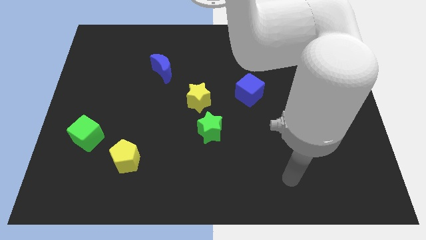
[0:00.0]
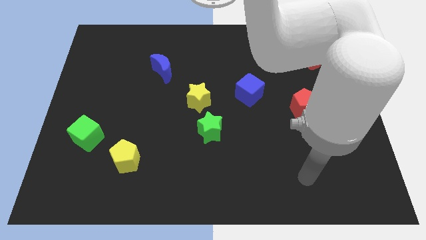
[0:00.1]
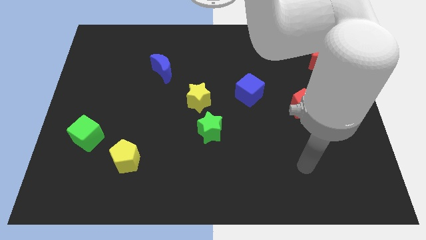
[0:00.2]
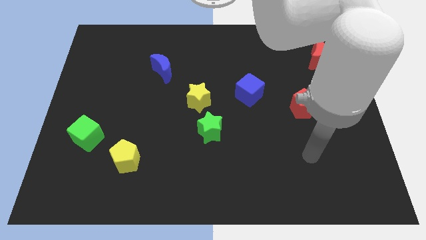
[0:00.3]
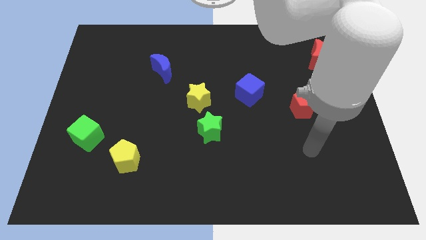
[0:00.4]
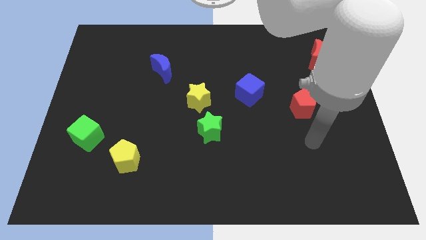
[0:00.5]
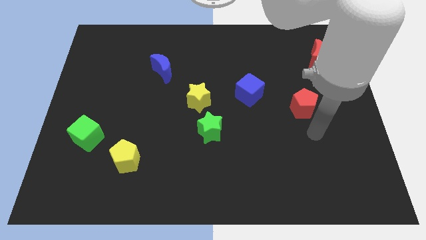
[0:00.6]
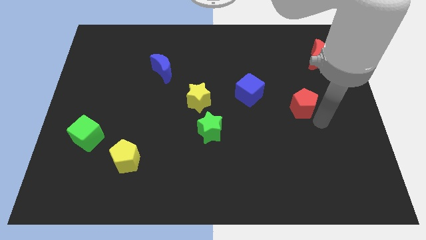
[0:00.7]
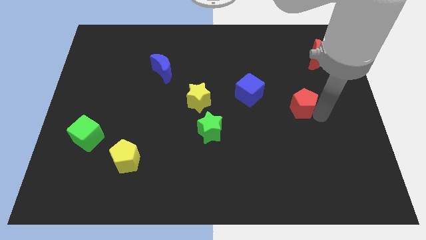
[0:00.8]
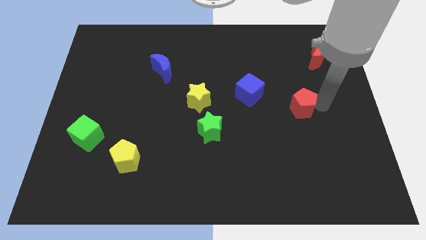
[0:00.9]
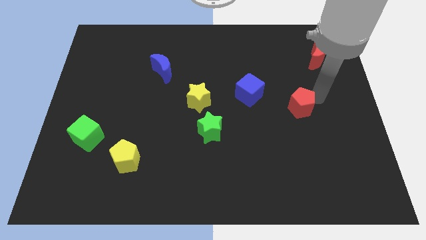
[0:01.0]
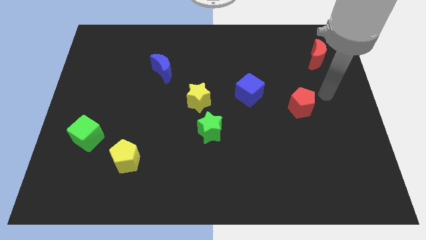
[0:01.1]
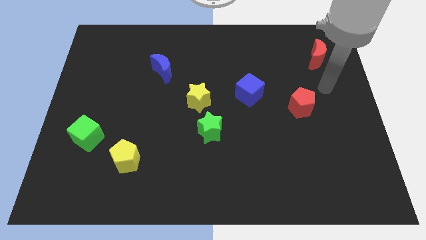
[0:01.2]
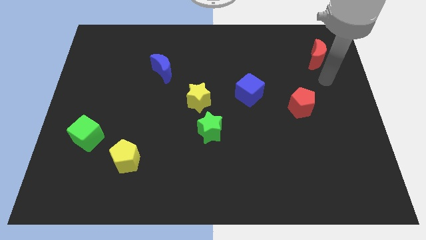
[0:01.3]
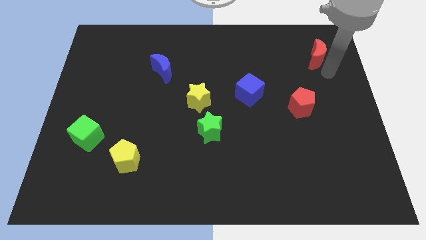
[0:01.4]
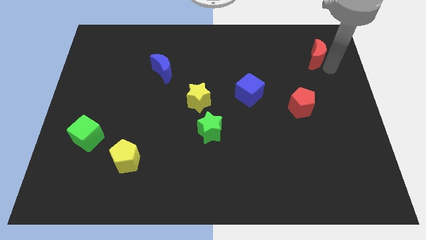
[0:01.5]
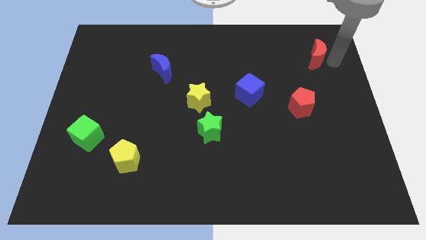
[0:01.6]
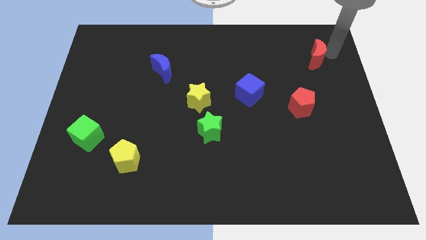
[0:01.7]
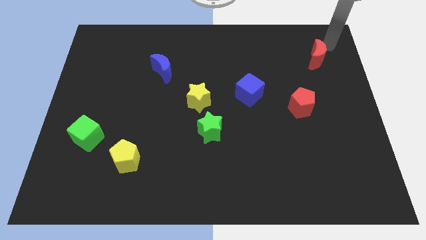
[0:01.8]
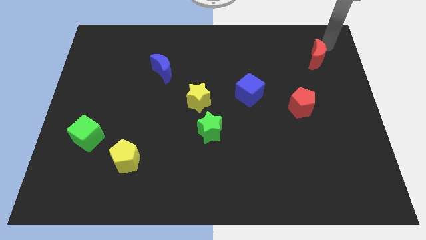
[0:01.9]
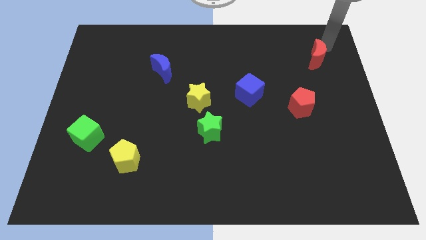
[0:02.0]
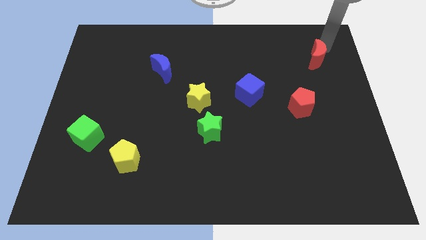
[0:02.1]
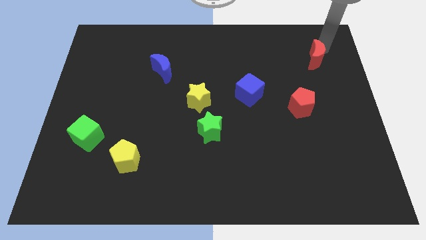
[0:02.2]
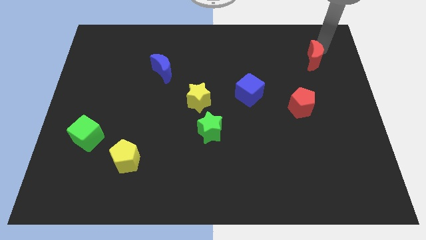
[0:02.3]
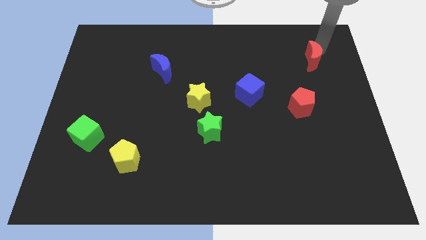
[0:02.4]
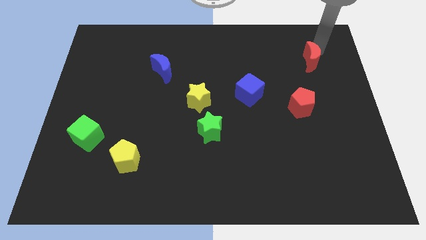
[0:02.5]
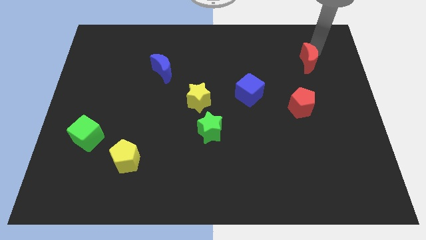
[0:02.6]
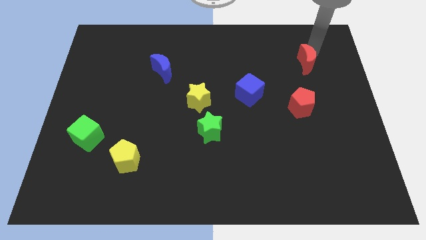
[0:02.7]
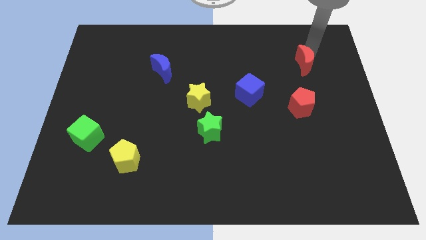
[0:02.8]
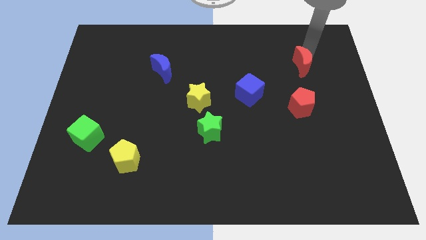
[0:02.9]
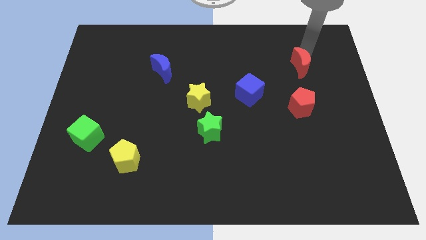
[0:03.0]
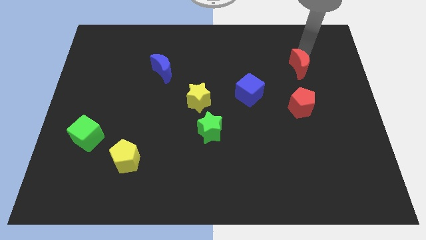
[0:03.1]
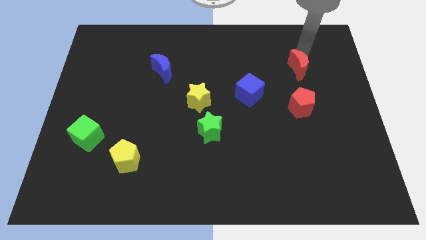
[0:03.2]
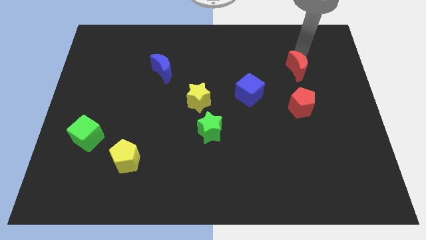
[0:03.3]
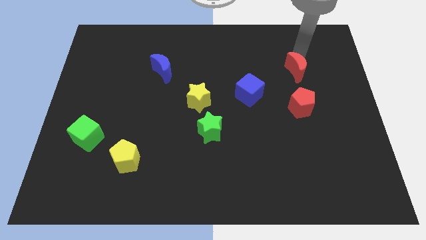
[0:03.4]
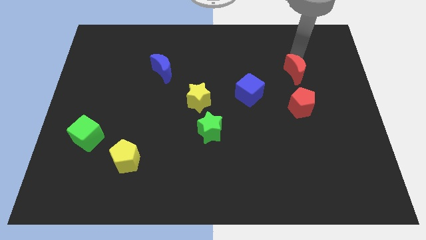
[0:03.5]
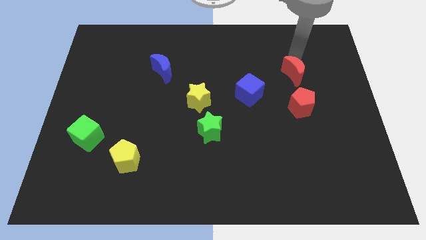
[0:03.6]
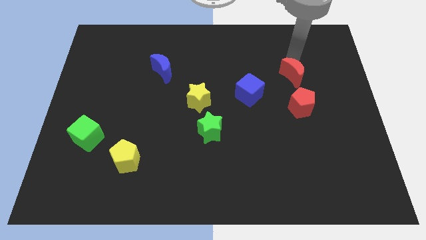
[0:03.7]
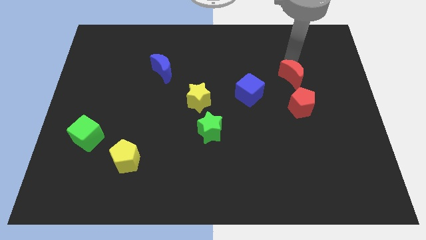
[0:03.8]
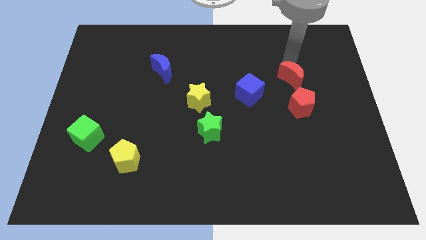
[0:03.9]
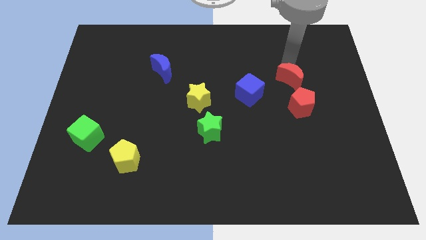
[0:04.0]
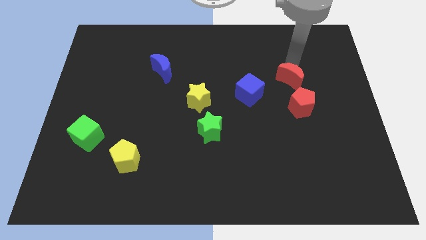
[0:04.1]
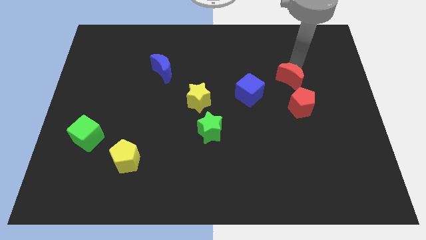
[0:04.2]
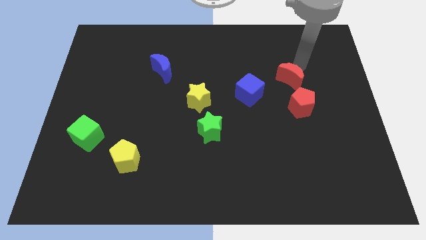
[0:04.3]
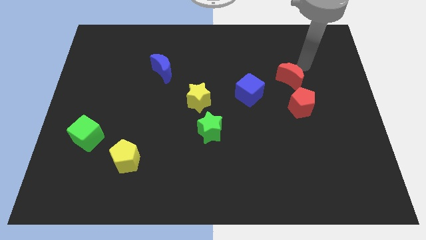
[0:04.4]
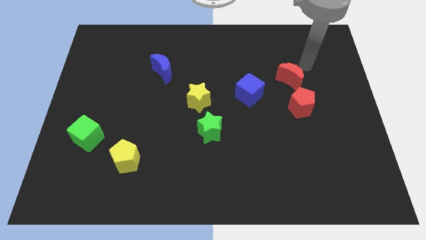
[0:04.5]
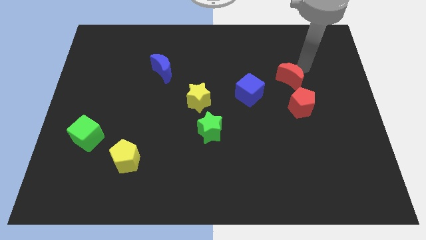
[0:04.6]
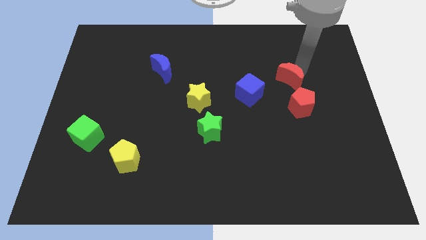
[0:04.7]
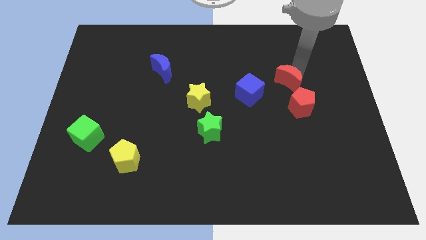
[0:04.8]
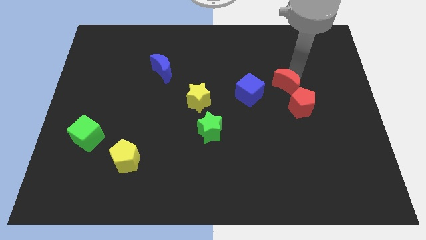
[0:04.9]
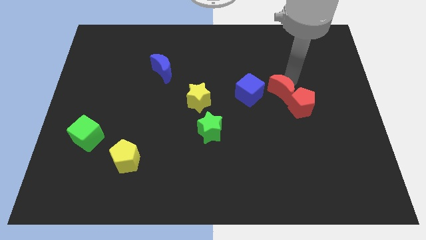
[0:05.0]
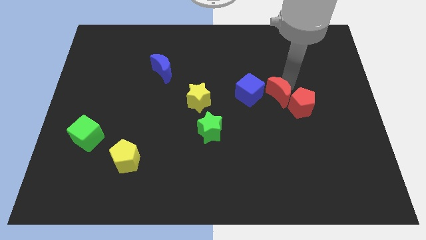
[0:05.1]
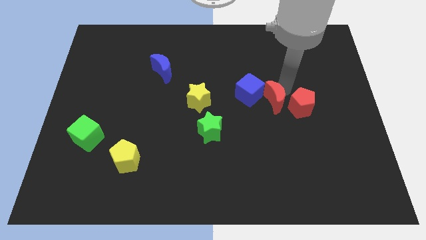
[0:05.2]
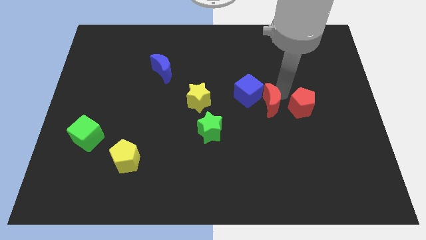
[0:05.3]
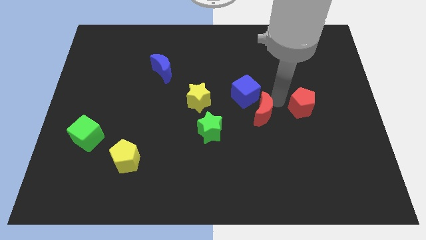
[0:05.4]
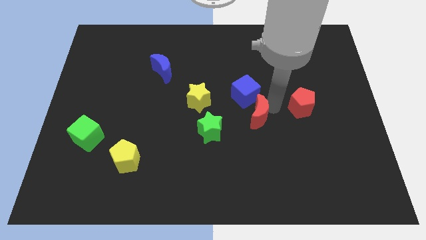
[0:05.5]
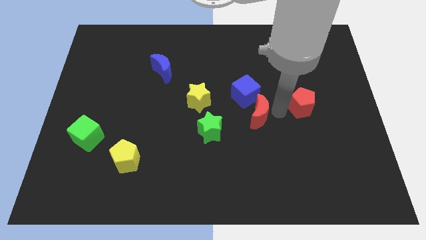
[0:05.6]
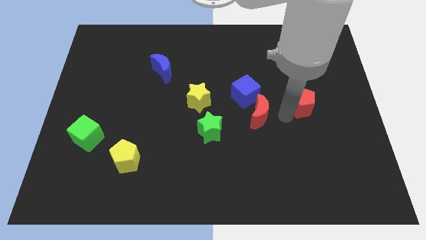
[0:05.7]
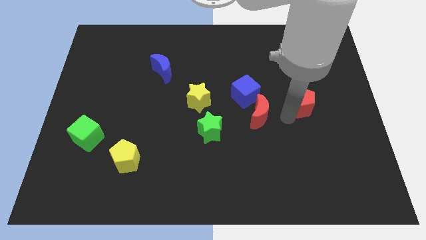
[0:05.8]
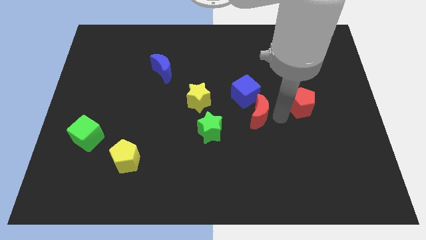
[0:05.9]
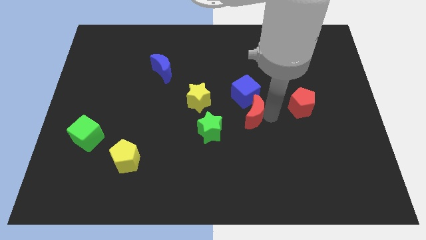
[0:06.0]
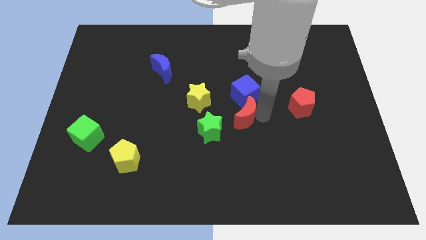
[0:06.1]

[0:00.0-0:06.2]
move the red moon diagonally down and to the left of the blue cube

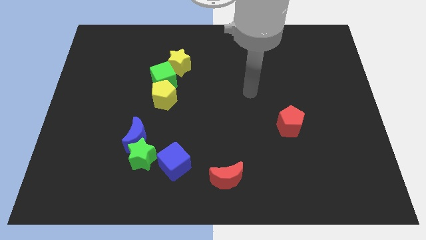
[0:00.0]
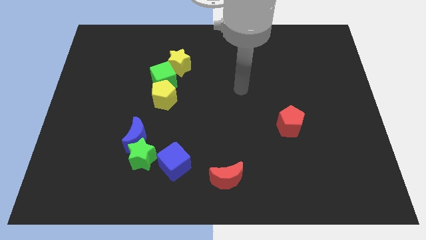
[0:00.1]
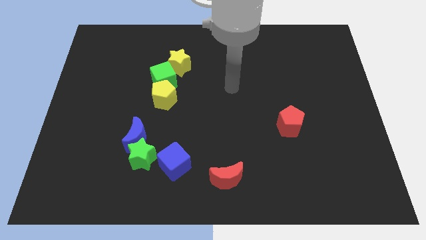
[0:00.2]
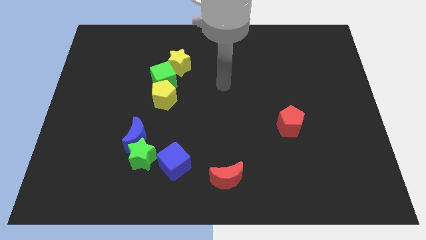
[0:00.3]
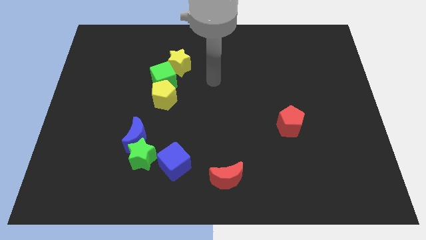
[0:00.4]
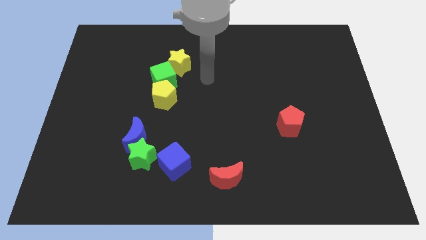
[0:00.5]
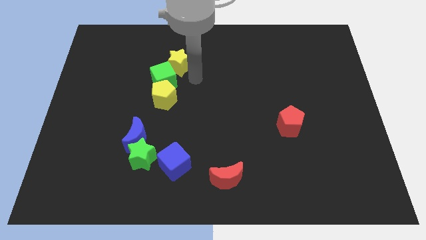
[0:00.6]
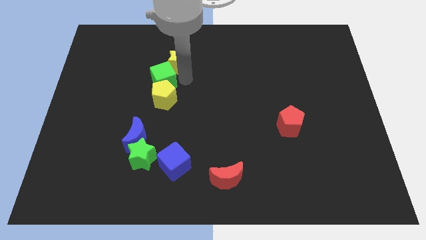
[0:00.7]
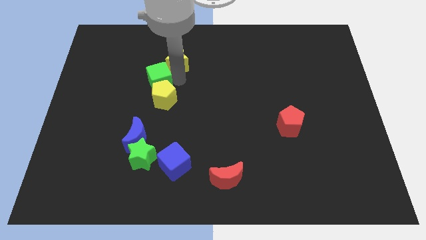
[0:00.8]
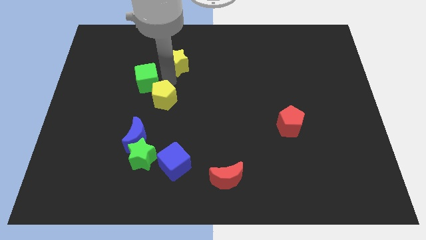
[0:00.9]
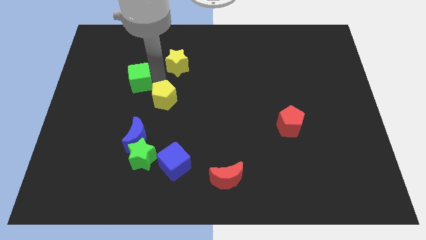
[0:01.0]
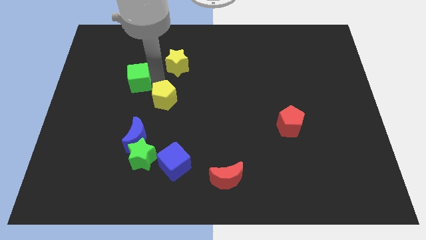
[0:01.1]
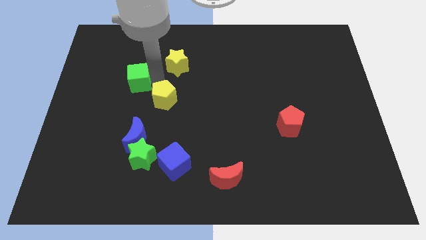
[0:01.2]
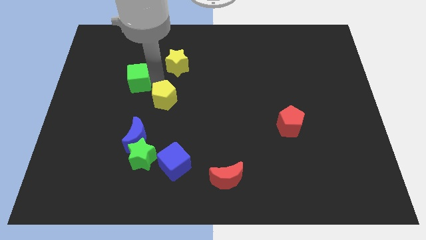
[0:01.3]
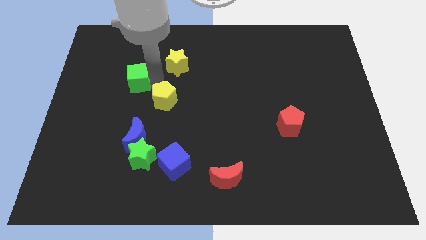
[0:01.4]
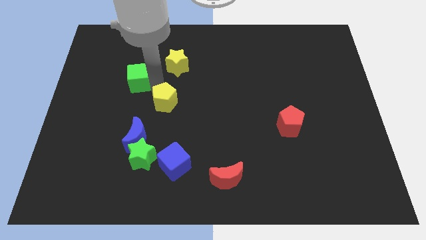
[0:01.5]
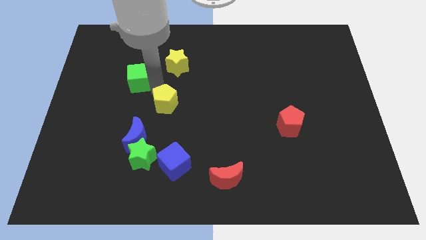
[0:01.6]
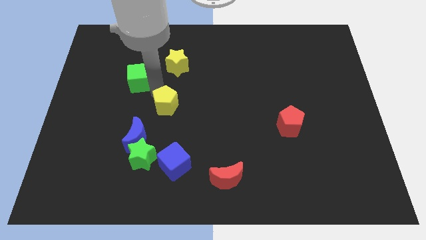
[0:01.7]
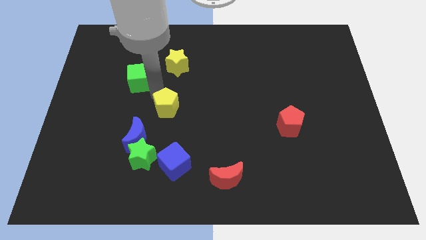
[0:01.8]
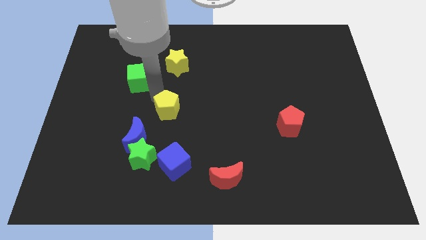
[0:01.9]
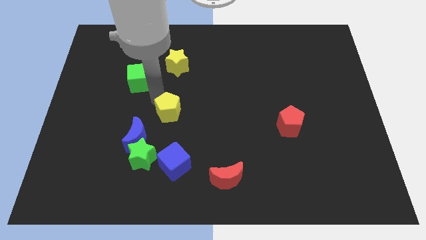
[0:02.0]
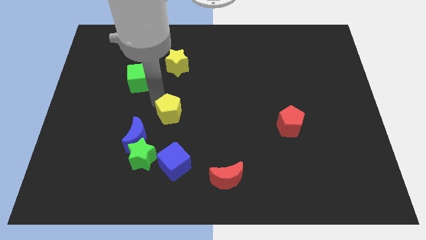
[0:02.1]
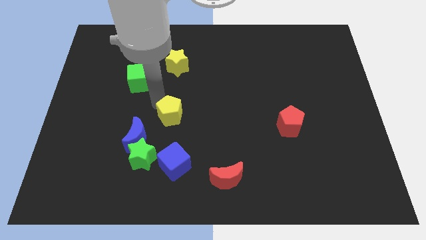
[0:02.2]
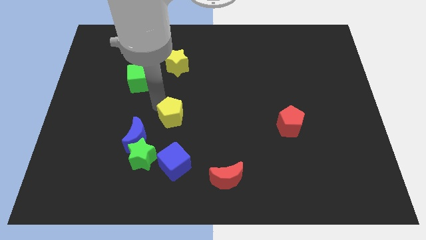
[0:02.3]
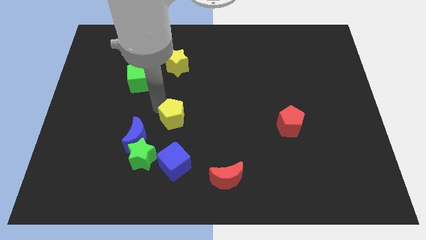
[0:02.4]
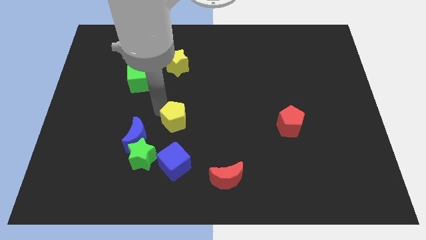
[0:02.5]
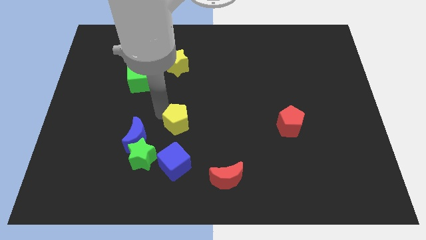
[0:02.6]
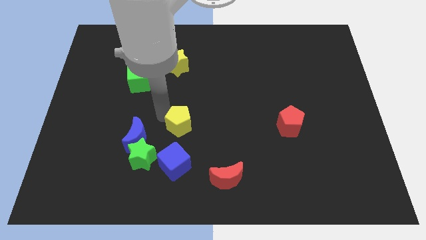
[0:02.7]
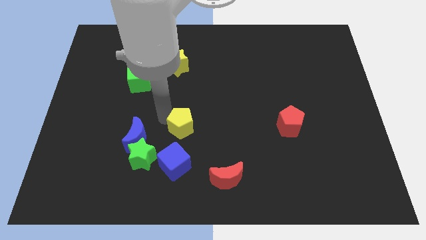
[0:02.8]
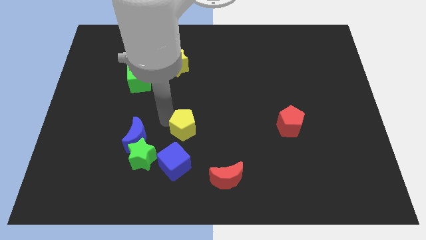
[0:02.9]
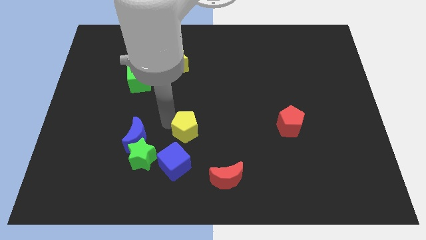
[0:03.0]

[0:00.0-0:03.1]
move the yellow pentagon to the top right side of the blue cube
